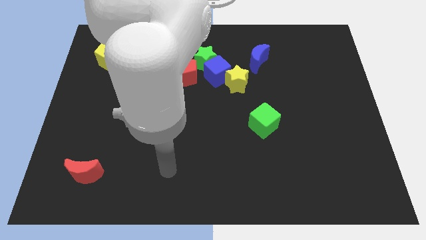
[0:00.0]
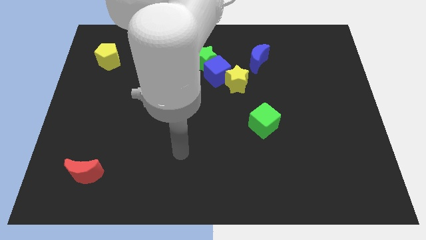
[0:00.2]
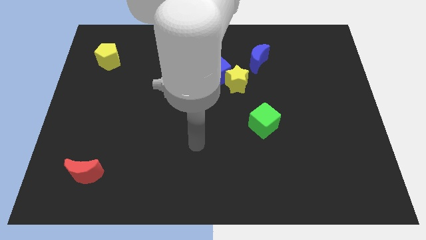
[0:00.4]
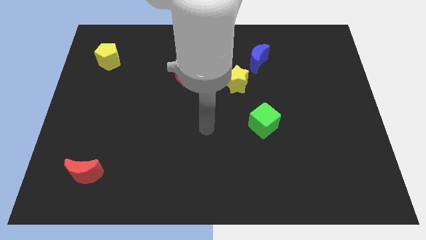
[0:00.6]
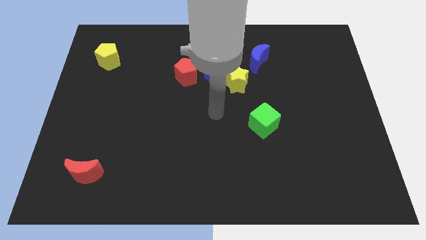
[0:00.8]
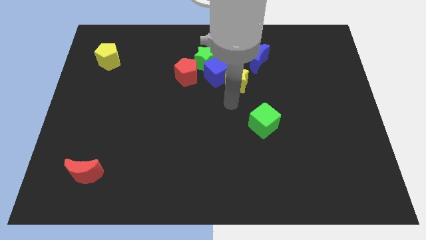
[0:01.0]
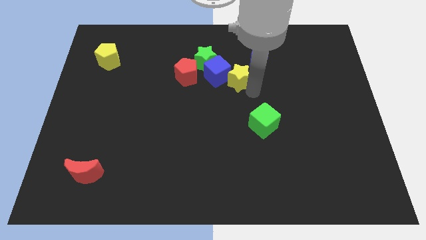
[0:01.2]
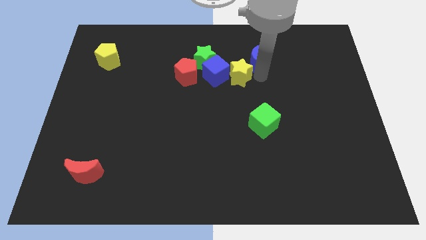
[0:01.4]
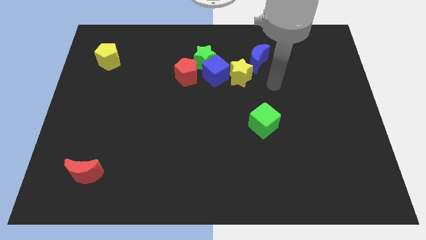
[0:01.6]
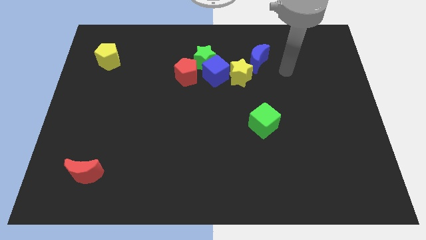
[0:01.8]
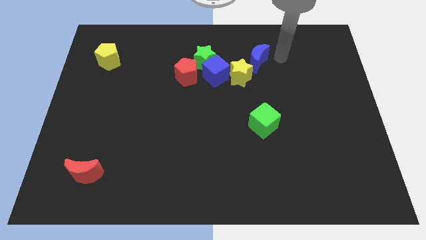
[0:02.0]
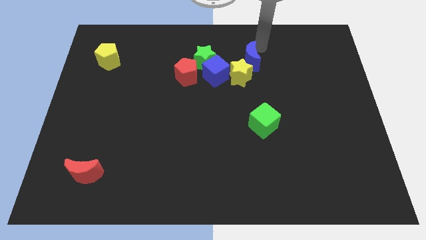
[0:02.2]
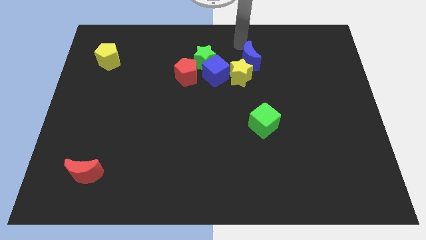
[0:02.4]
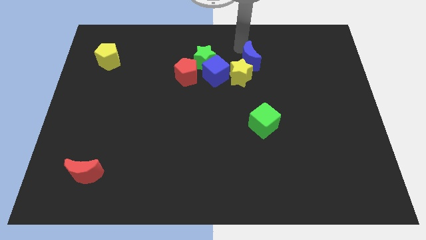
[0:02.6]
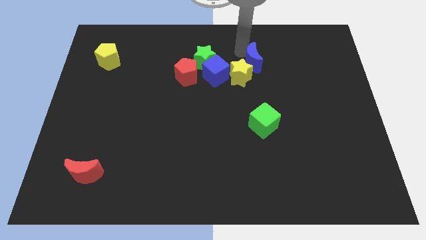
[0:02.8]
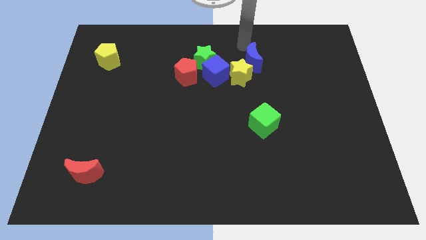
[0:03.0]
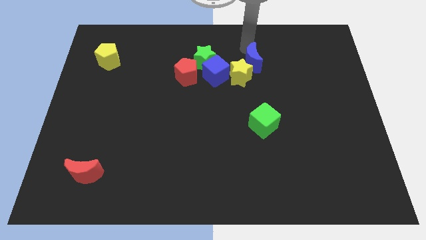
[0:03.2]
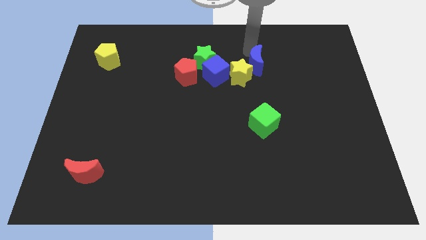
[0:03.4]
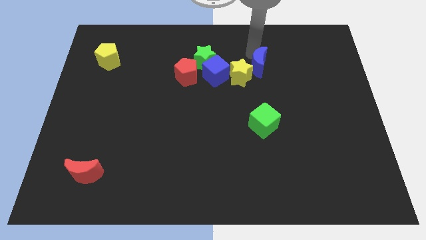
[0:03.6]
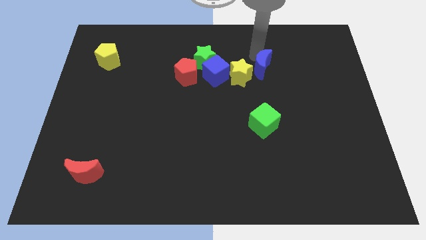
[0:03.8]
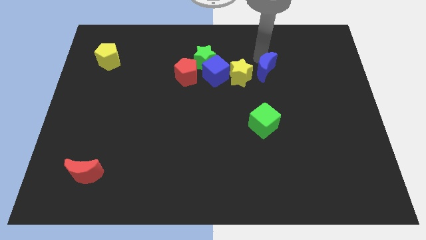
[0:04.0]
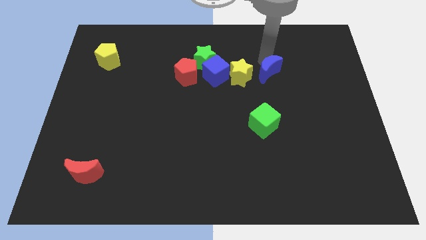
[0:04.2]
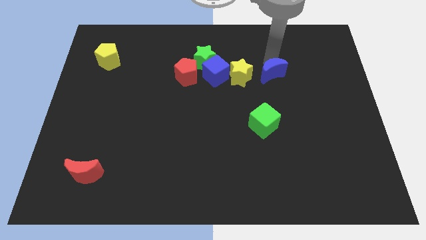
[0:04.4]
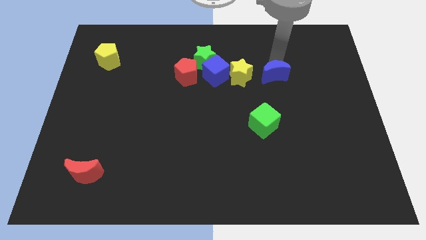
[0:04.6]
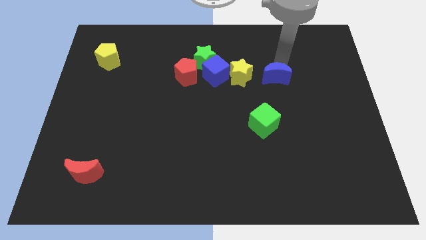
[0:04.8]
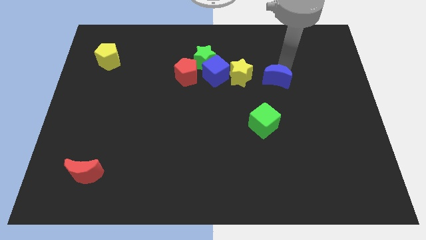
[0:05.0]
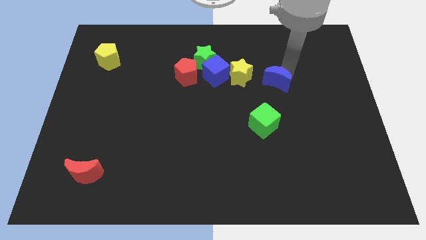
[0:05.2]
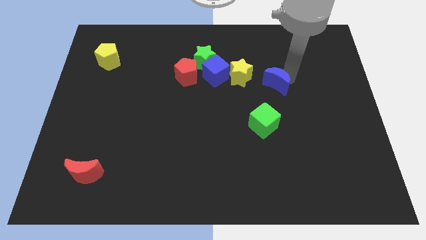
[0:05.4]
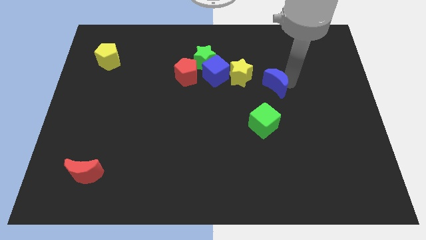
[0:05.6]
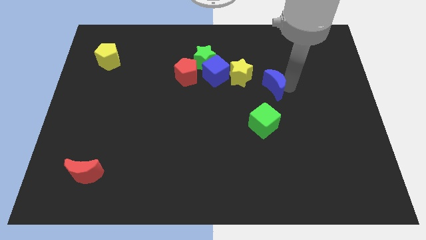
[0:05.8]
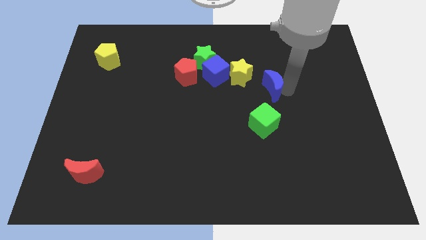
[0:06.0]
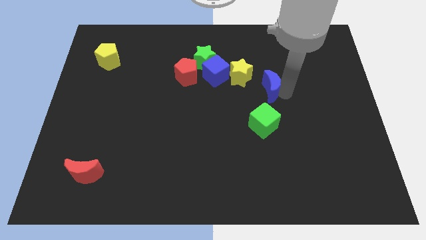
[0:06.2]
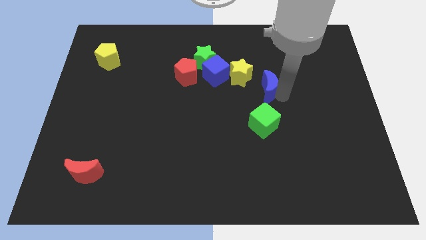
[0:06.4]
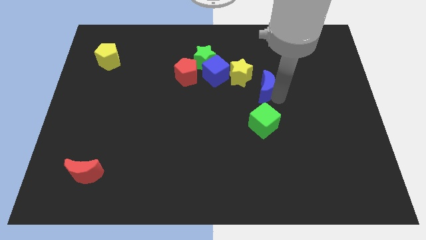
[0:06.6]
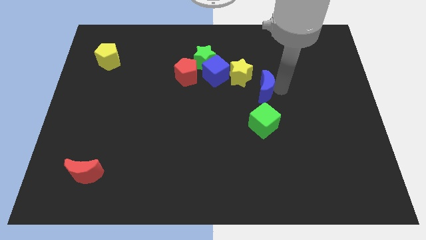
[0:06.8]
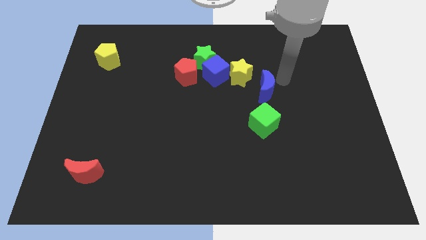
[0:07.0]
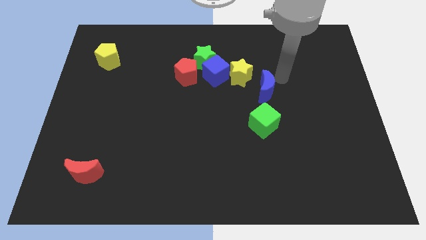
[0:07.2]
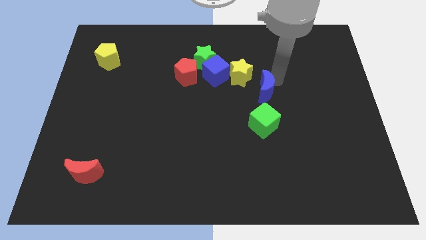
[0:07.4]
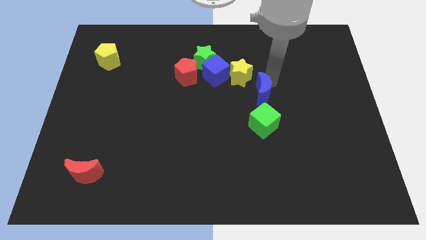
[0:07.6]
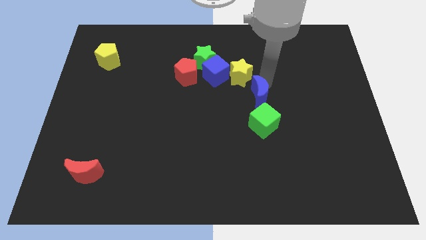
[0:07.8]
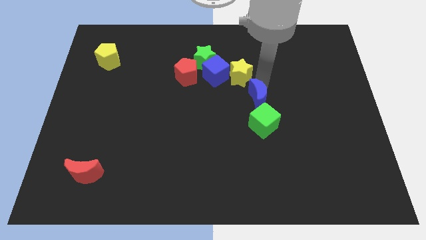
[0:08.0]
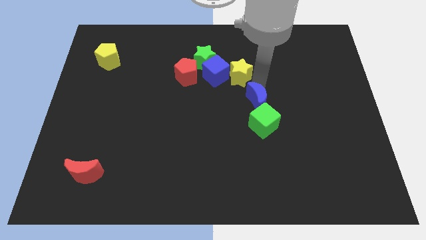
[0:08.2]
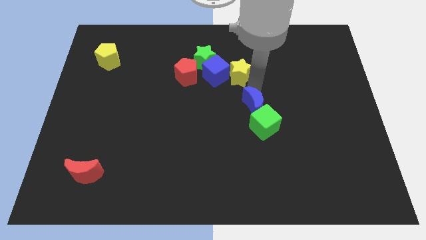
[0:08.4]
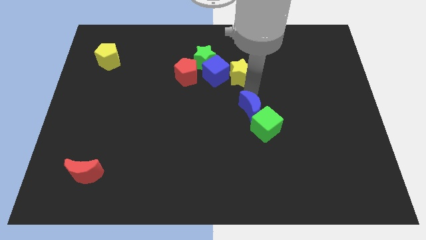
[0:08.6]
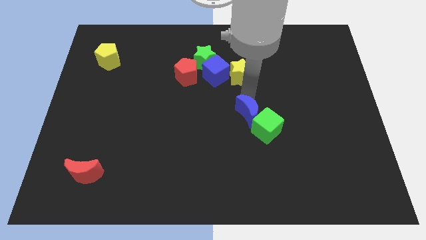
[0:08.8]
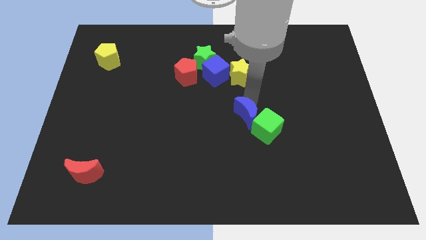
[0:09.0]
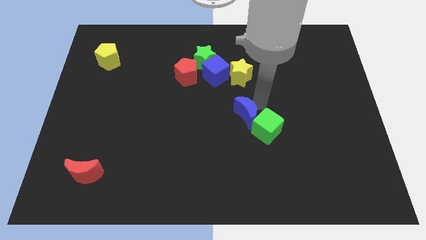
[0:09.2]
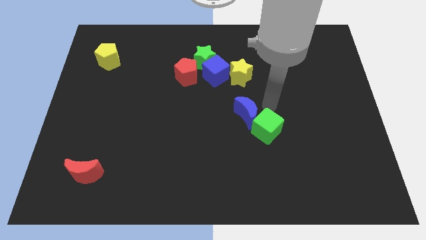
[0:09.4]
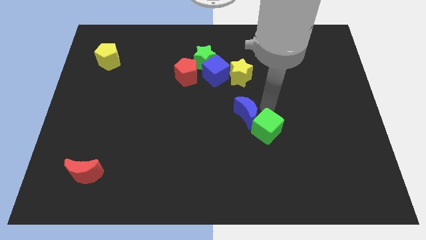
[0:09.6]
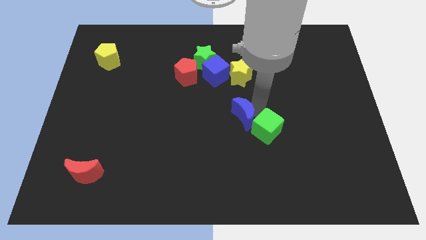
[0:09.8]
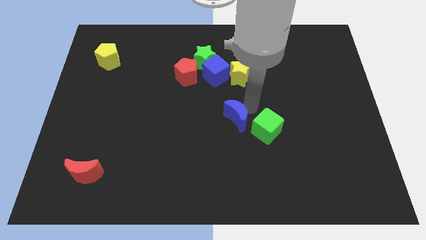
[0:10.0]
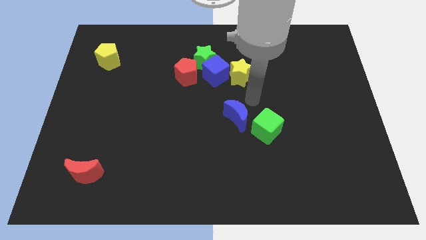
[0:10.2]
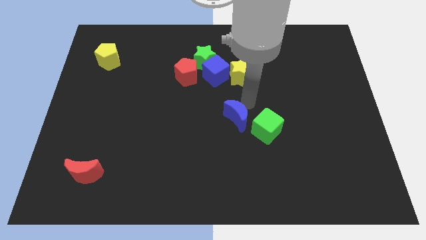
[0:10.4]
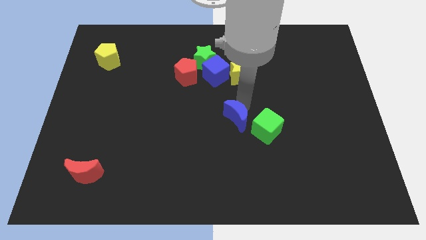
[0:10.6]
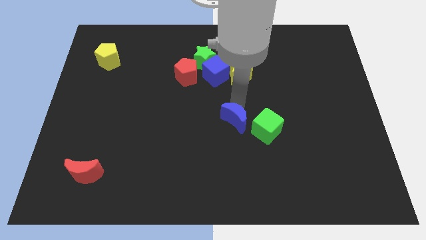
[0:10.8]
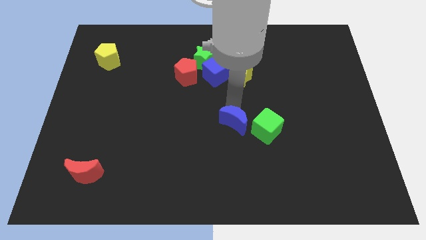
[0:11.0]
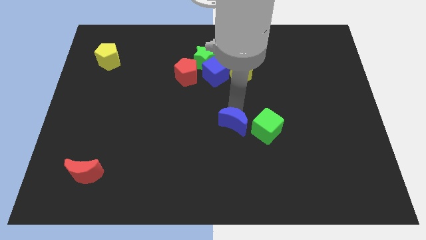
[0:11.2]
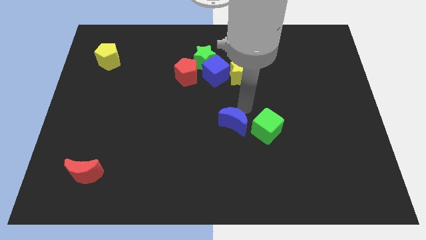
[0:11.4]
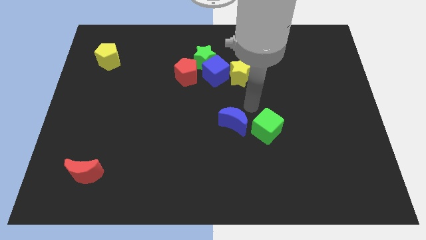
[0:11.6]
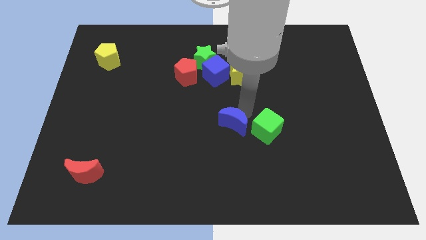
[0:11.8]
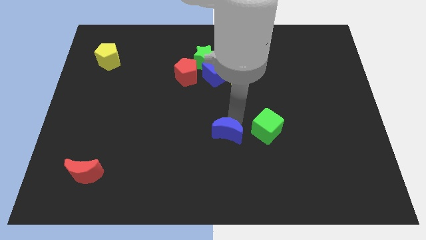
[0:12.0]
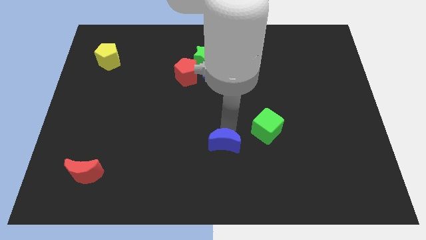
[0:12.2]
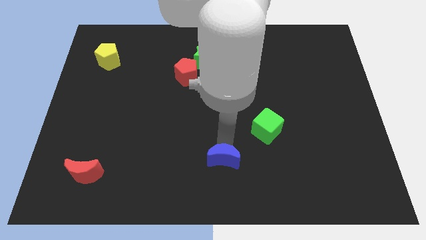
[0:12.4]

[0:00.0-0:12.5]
move the blue moon to the bottom side
